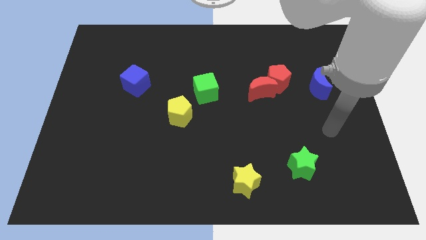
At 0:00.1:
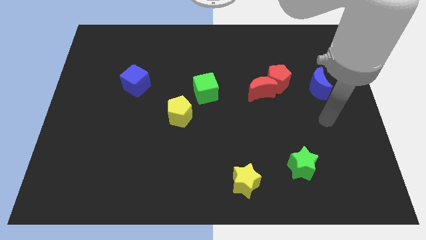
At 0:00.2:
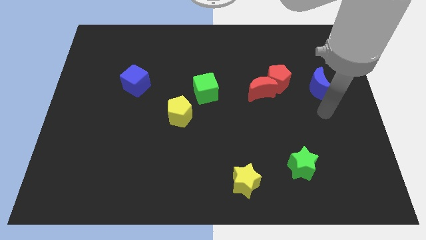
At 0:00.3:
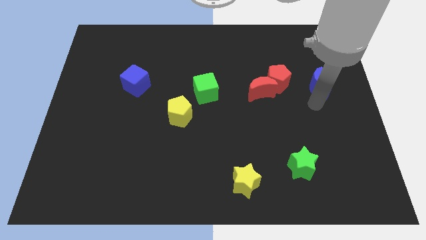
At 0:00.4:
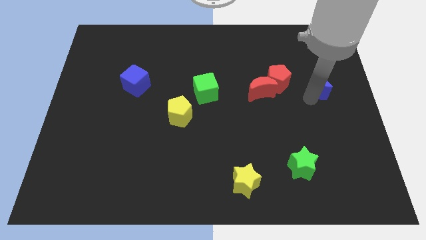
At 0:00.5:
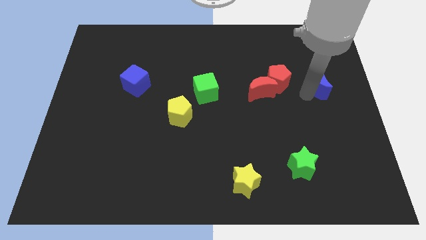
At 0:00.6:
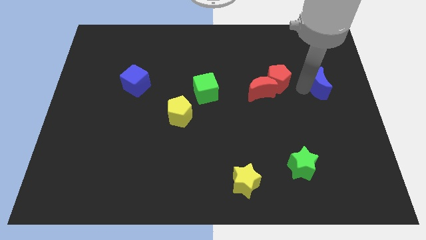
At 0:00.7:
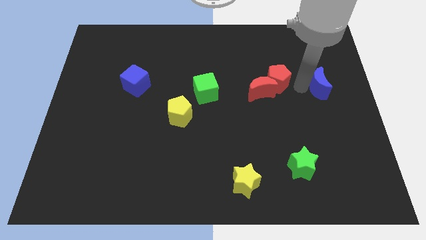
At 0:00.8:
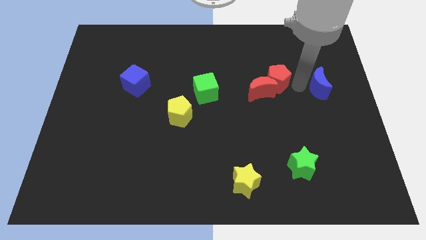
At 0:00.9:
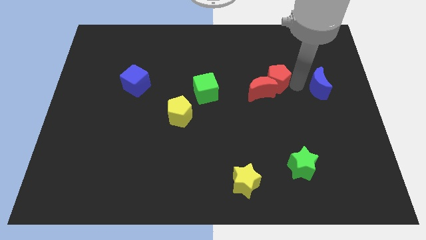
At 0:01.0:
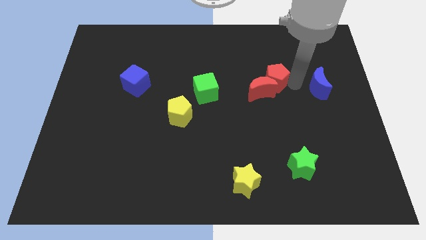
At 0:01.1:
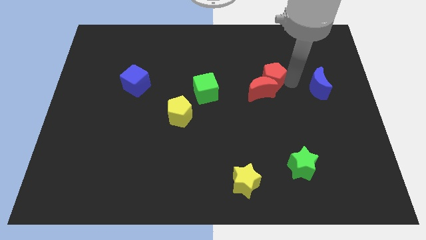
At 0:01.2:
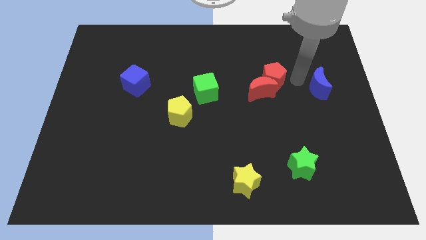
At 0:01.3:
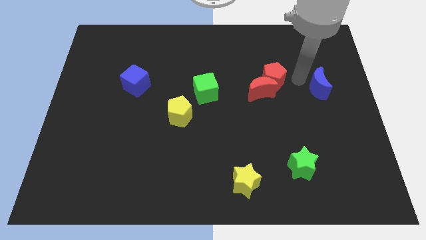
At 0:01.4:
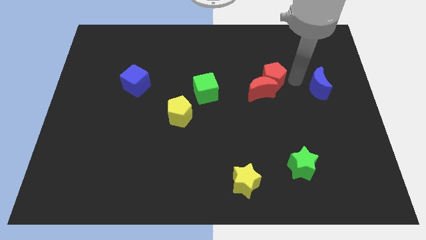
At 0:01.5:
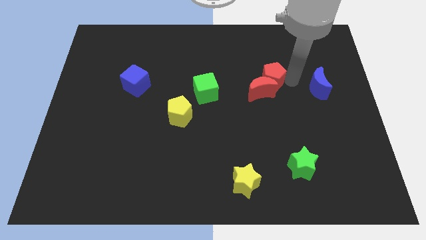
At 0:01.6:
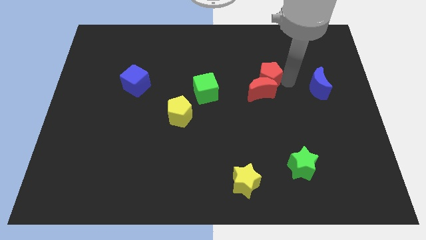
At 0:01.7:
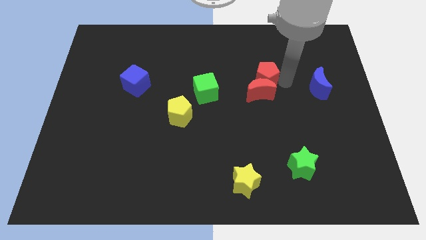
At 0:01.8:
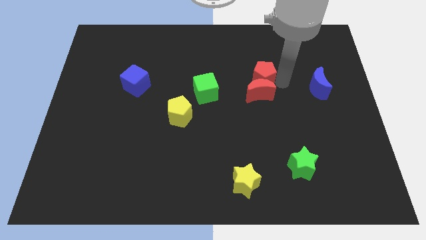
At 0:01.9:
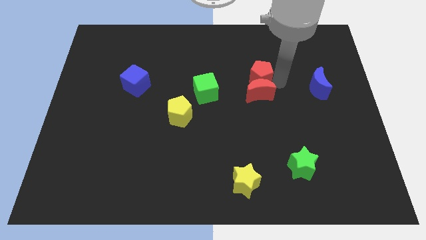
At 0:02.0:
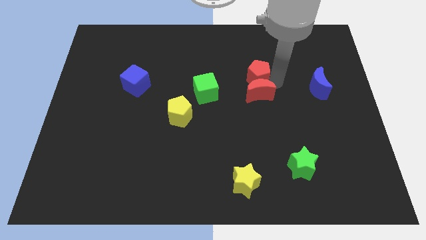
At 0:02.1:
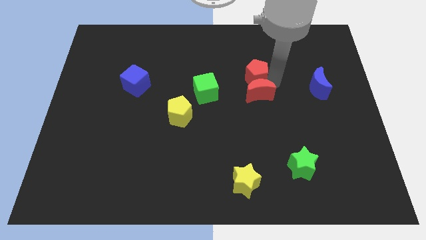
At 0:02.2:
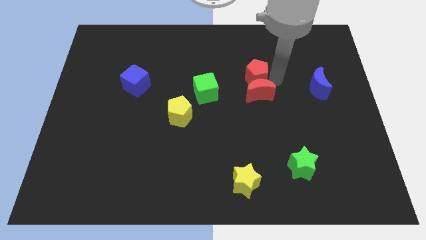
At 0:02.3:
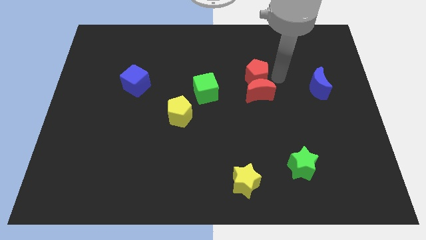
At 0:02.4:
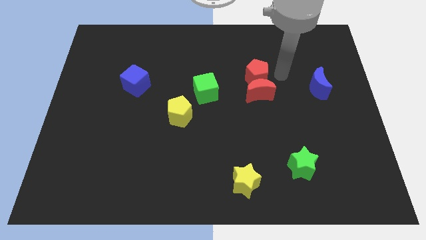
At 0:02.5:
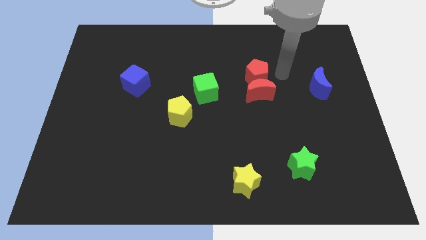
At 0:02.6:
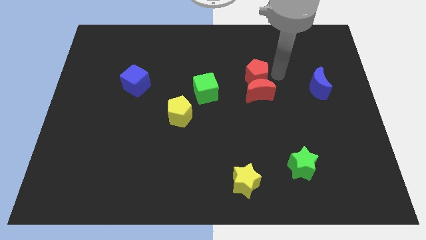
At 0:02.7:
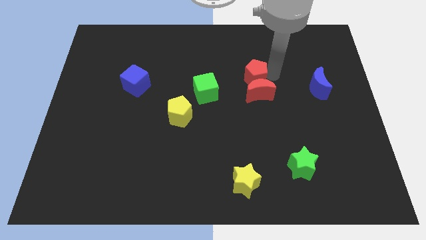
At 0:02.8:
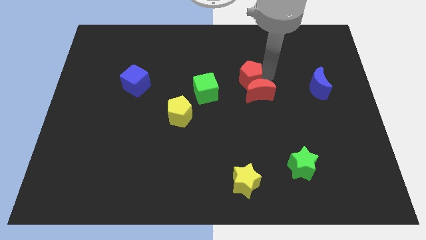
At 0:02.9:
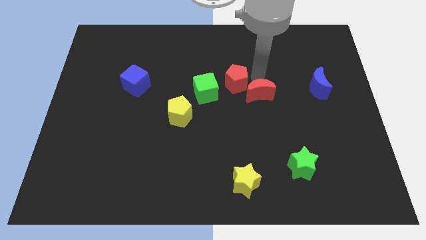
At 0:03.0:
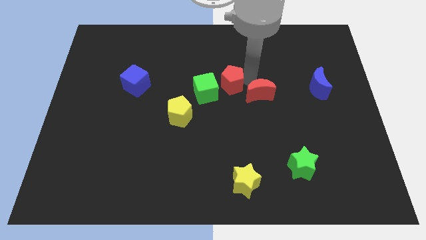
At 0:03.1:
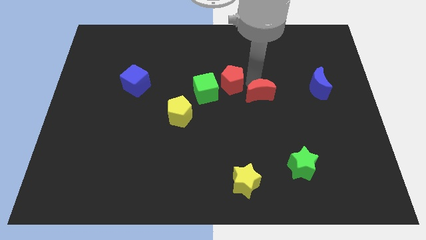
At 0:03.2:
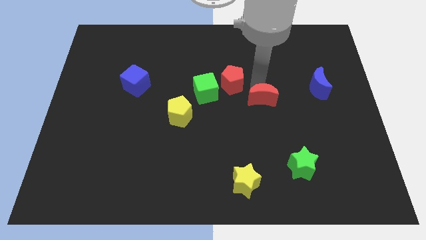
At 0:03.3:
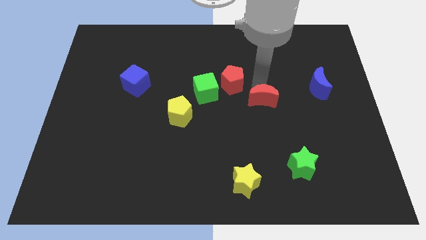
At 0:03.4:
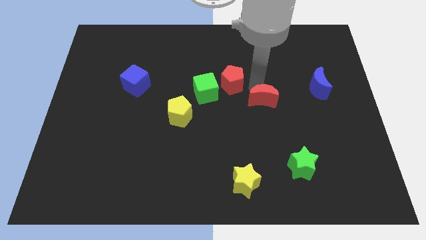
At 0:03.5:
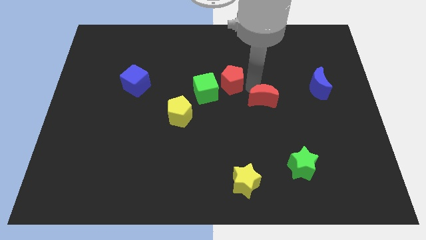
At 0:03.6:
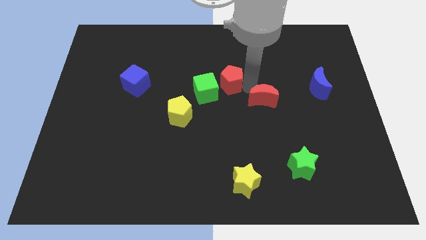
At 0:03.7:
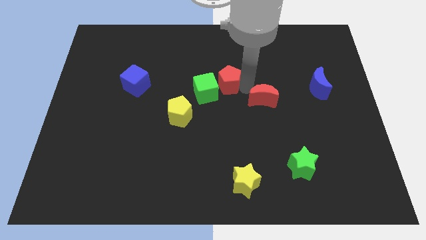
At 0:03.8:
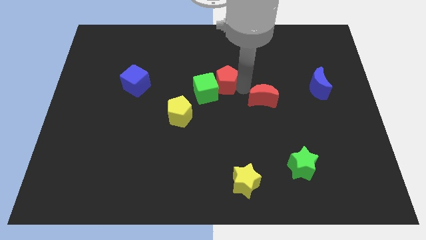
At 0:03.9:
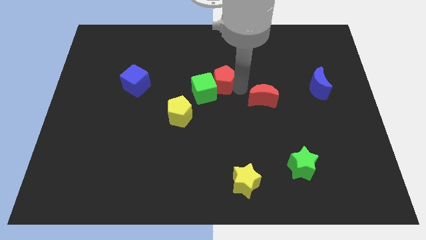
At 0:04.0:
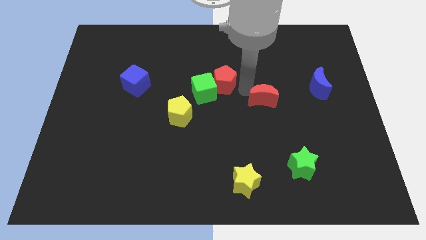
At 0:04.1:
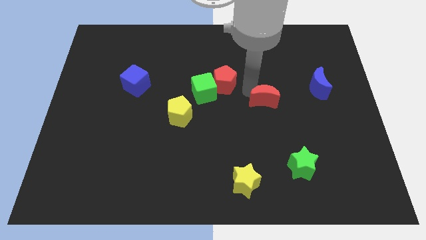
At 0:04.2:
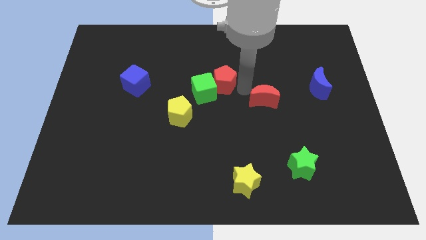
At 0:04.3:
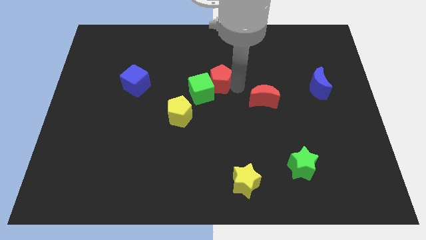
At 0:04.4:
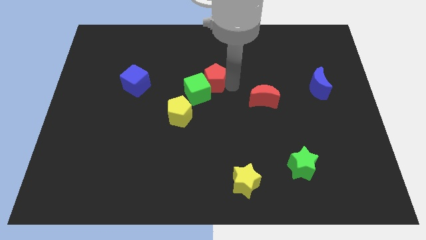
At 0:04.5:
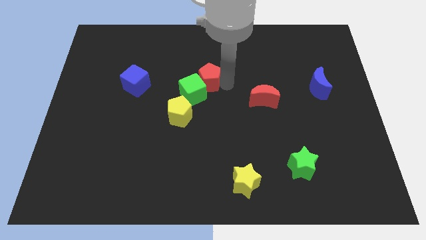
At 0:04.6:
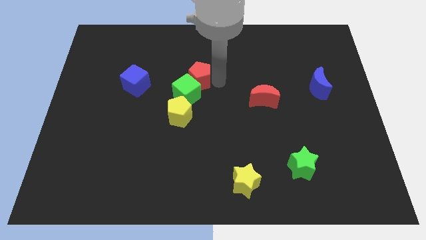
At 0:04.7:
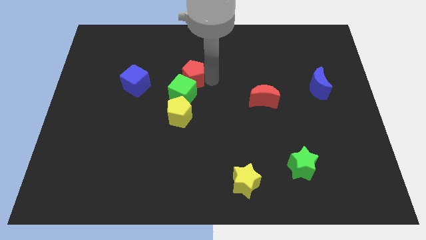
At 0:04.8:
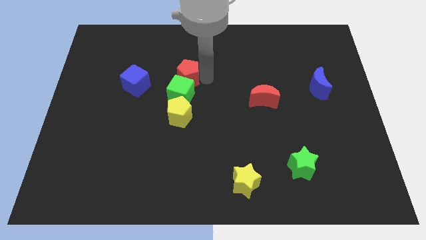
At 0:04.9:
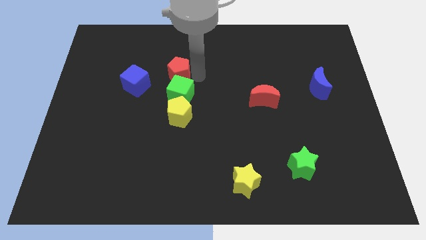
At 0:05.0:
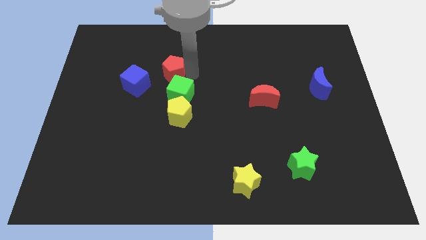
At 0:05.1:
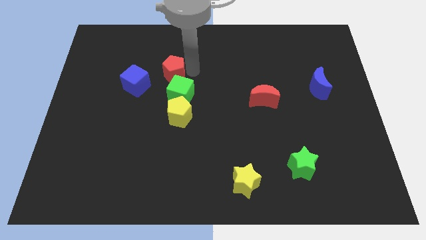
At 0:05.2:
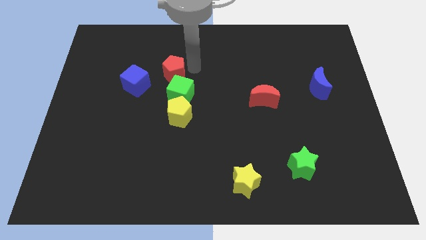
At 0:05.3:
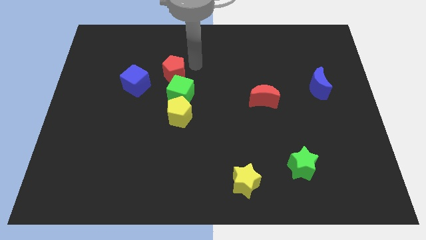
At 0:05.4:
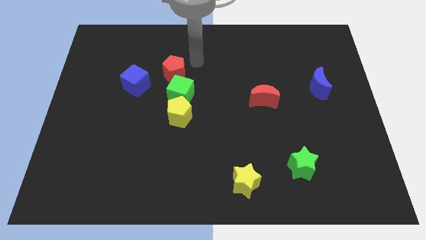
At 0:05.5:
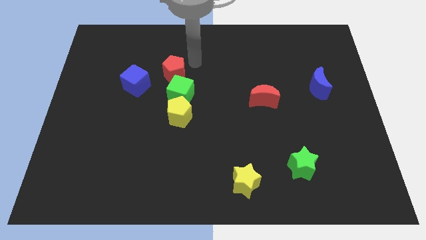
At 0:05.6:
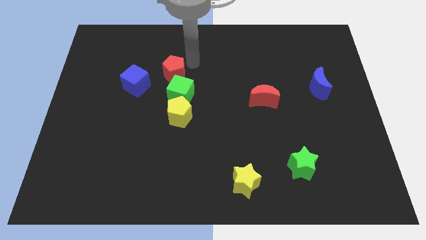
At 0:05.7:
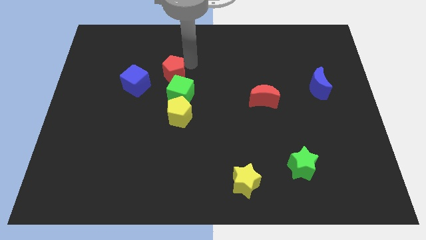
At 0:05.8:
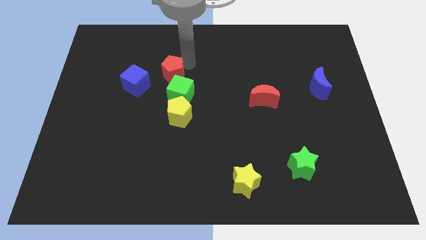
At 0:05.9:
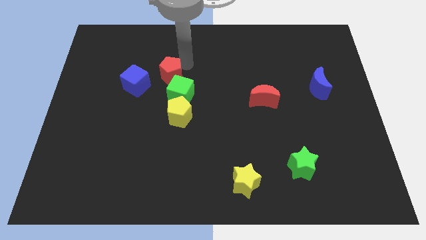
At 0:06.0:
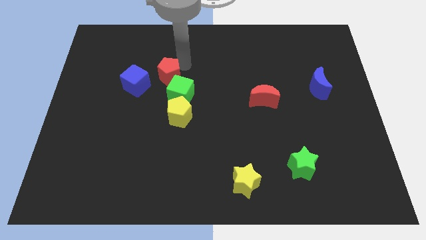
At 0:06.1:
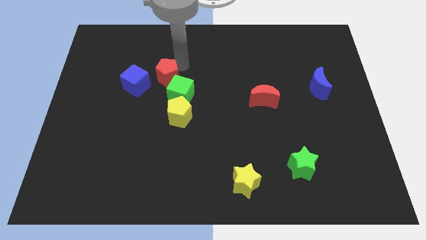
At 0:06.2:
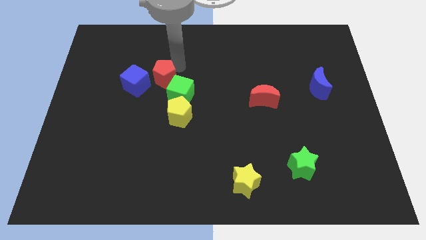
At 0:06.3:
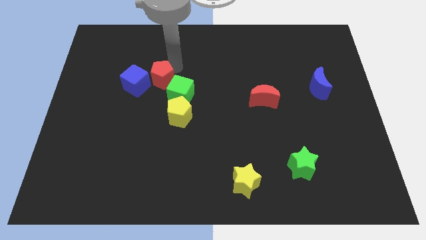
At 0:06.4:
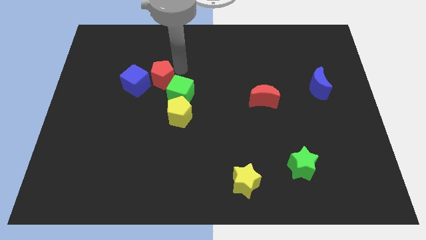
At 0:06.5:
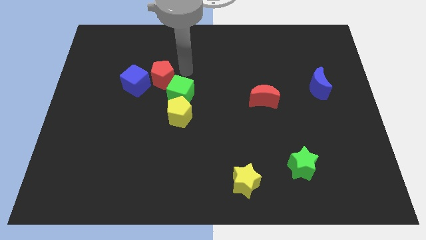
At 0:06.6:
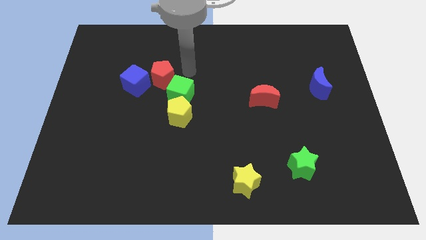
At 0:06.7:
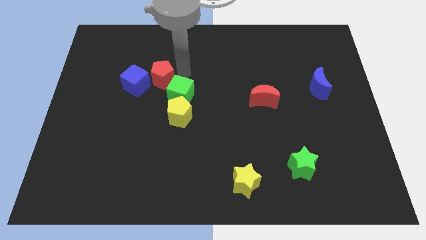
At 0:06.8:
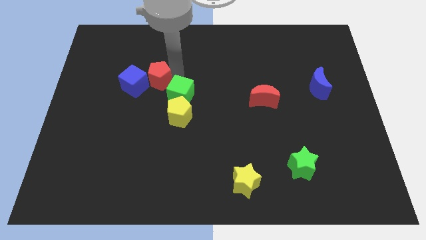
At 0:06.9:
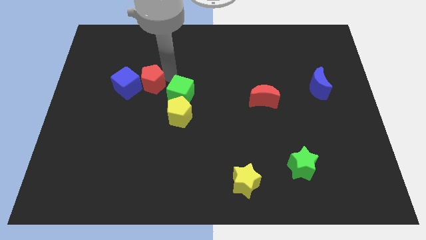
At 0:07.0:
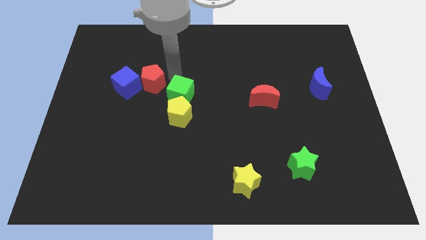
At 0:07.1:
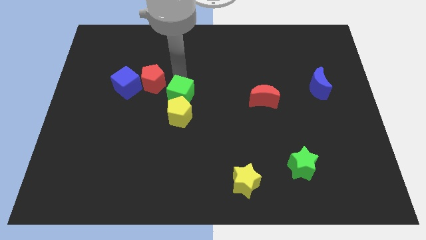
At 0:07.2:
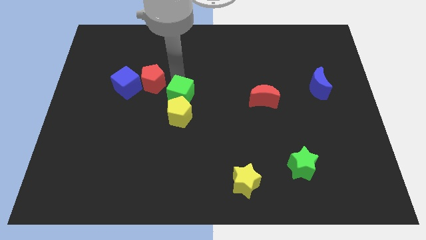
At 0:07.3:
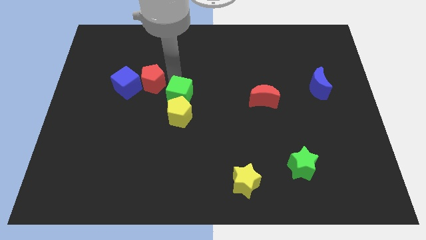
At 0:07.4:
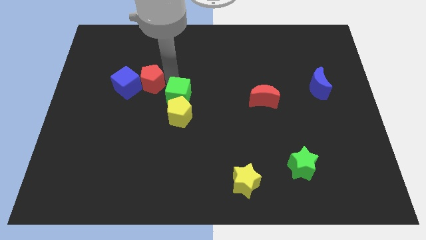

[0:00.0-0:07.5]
slide the red pentagon to the blue cube
